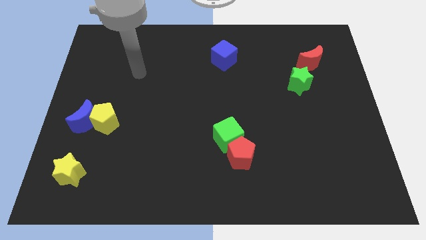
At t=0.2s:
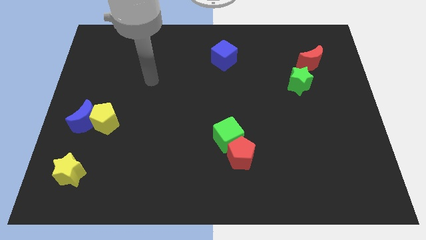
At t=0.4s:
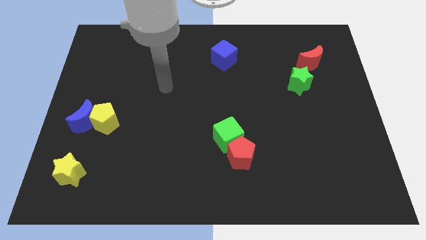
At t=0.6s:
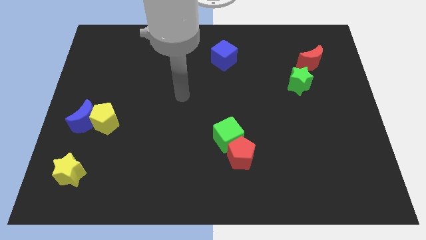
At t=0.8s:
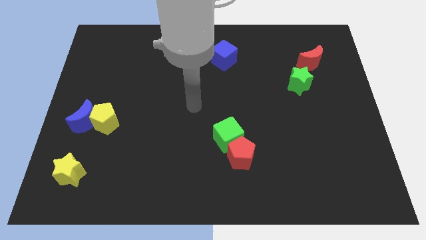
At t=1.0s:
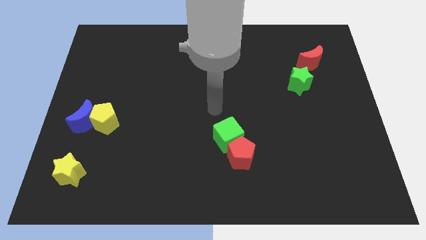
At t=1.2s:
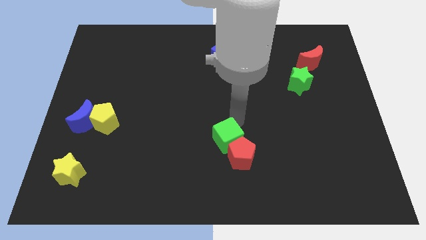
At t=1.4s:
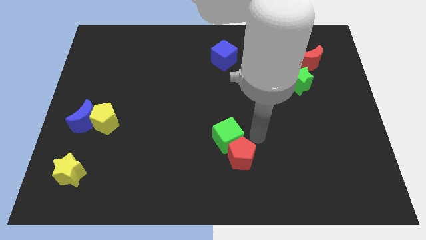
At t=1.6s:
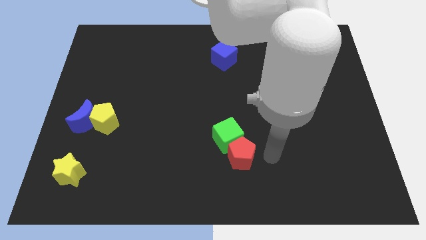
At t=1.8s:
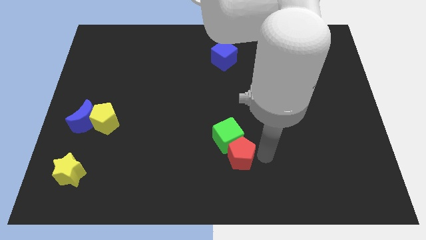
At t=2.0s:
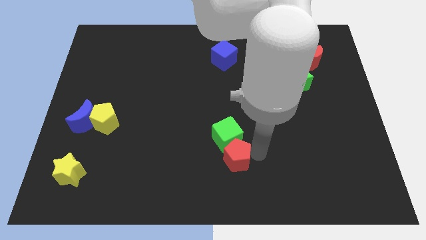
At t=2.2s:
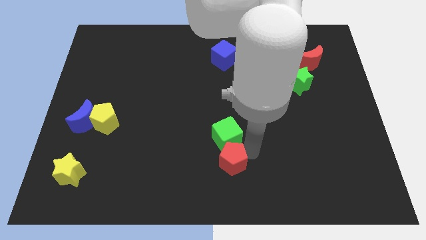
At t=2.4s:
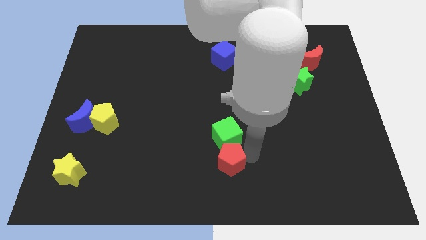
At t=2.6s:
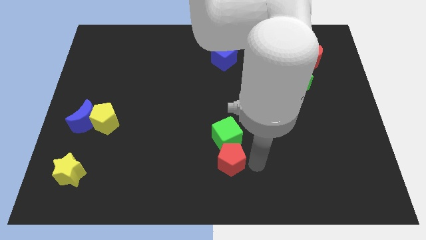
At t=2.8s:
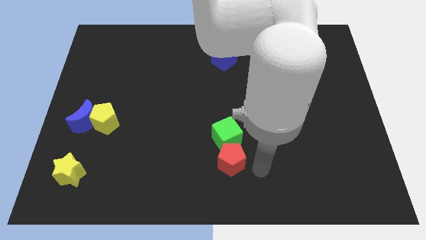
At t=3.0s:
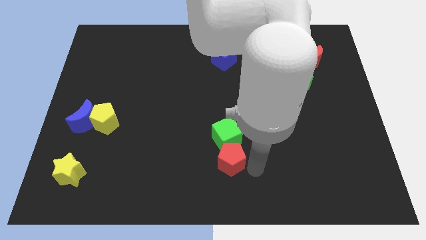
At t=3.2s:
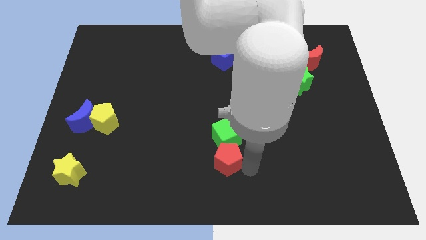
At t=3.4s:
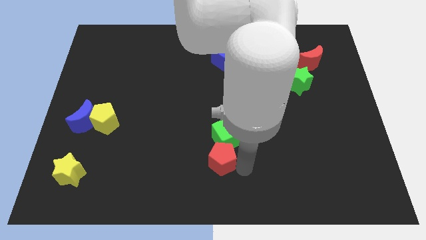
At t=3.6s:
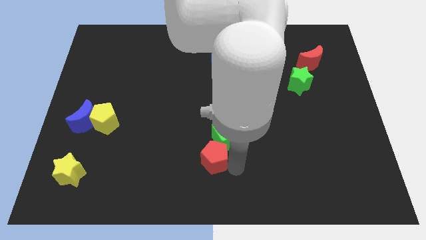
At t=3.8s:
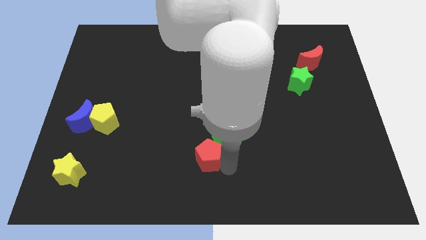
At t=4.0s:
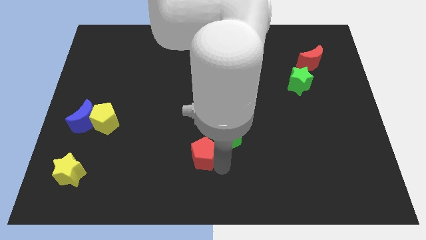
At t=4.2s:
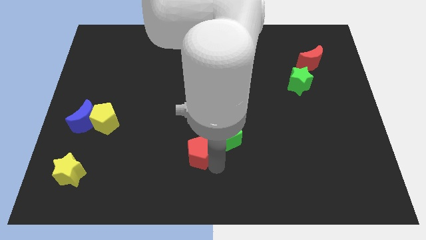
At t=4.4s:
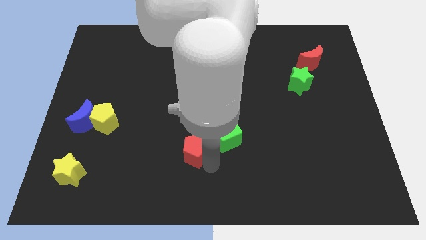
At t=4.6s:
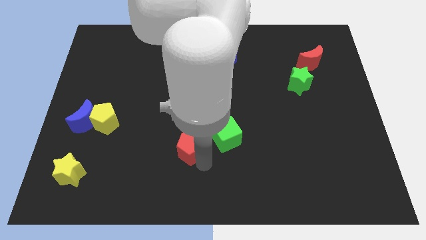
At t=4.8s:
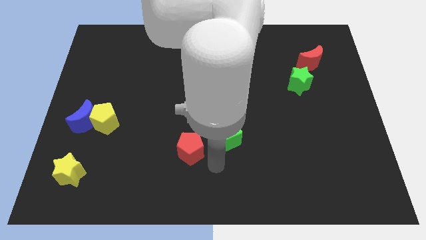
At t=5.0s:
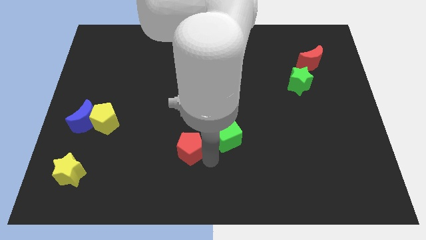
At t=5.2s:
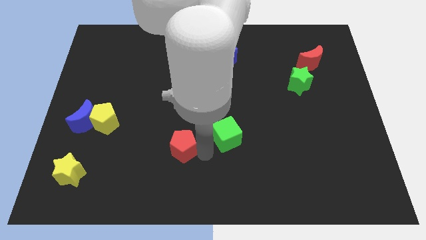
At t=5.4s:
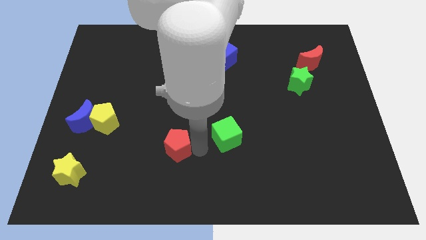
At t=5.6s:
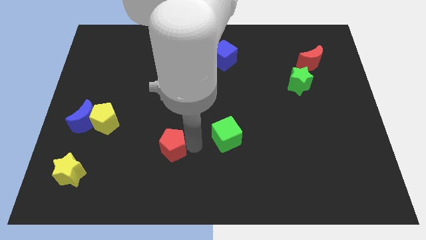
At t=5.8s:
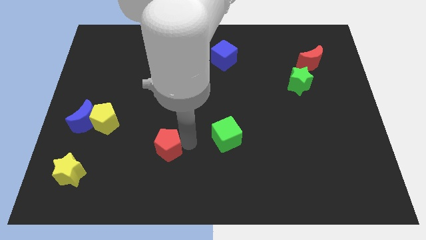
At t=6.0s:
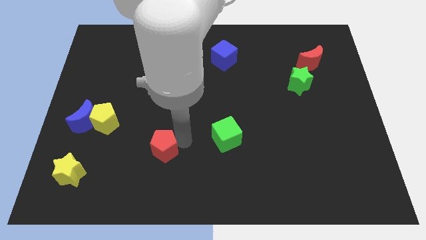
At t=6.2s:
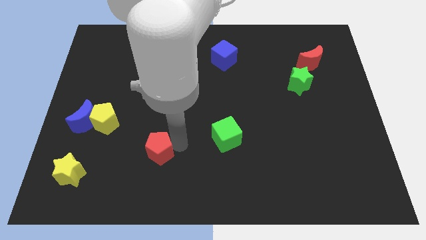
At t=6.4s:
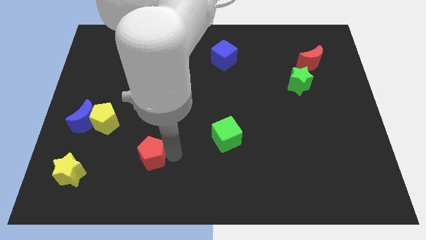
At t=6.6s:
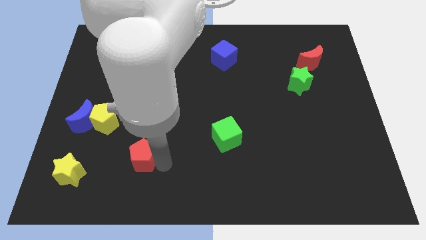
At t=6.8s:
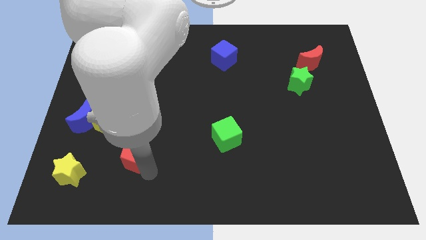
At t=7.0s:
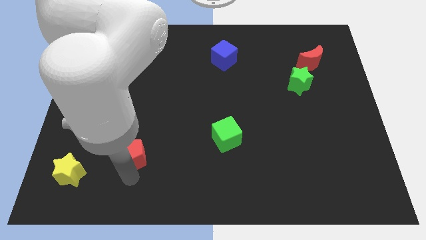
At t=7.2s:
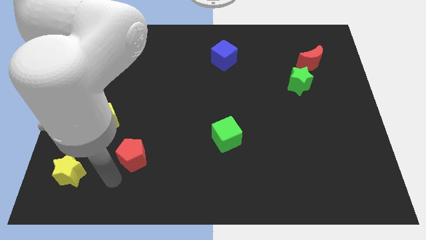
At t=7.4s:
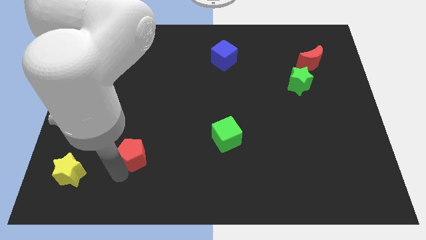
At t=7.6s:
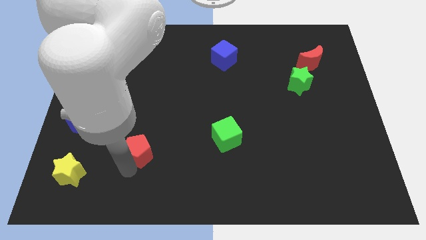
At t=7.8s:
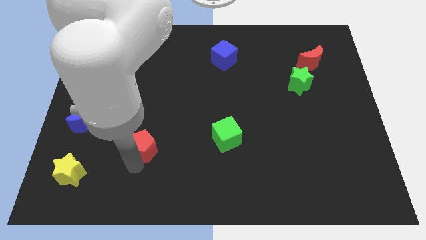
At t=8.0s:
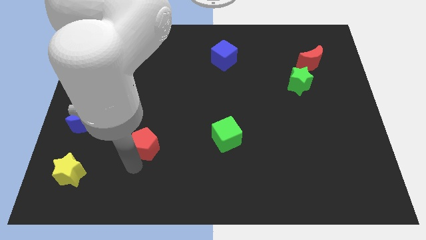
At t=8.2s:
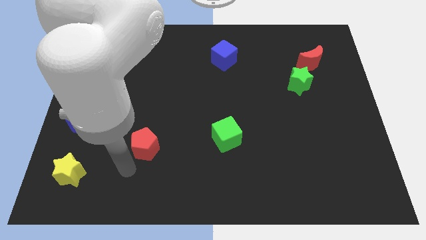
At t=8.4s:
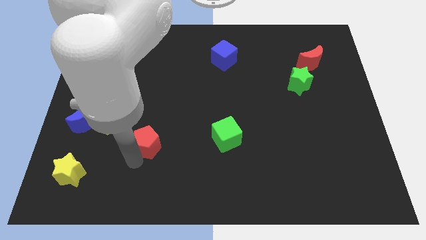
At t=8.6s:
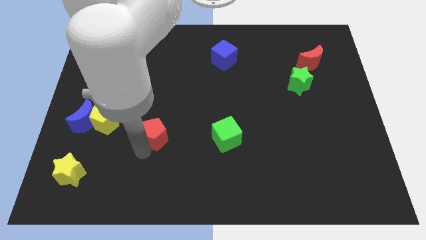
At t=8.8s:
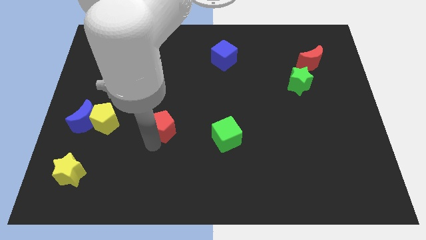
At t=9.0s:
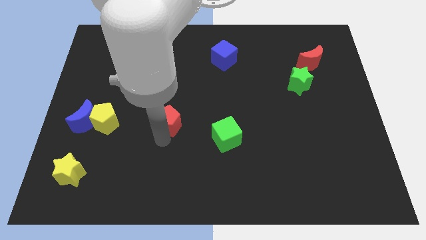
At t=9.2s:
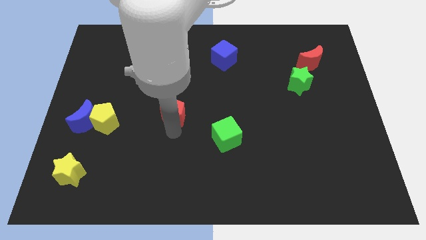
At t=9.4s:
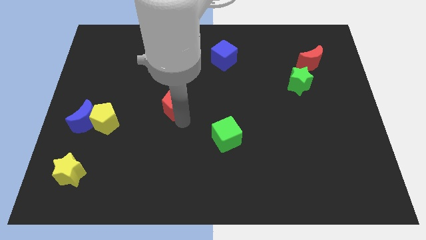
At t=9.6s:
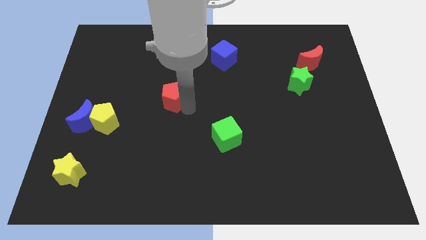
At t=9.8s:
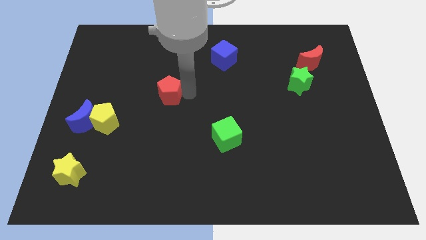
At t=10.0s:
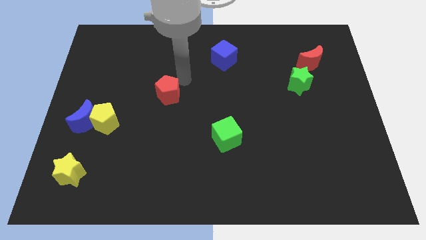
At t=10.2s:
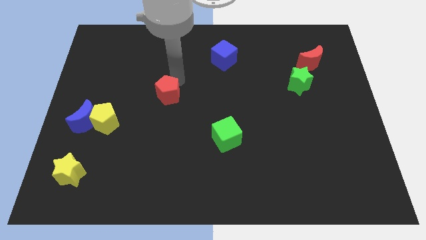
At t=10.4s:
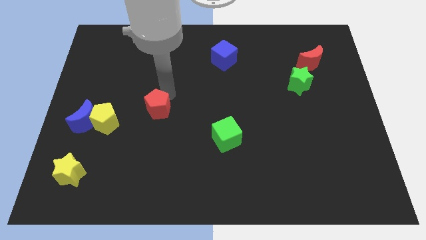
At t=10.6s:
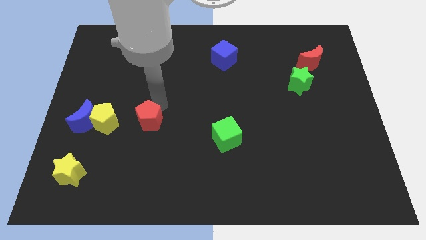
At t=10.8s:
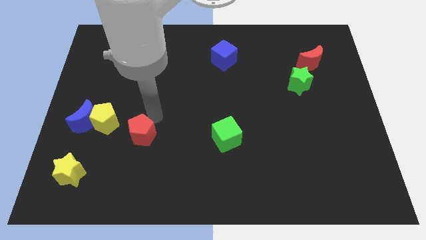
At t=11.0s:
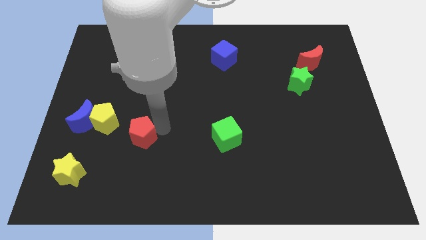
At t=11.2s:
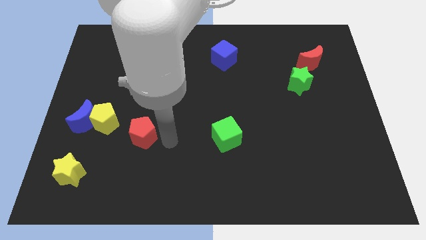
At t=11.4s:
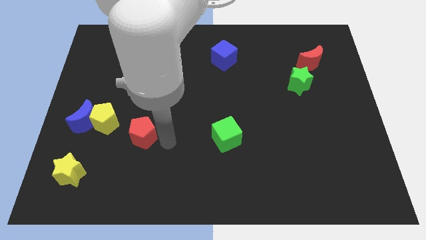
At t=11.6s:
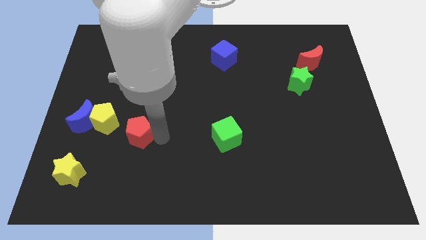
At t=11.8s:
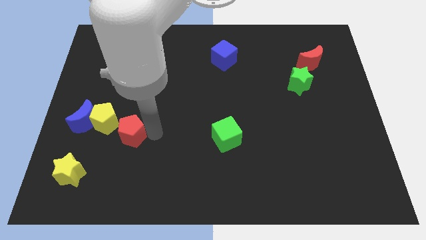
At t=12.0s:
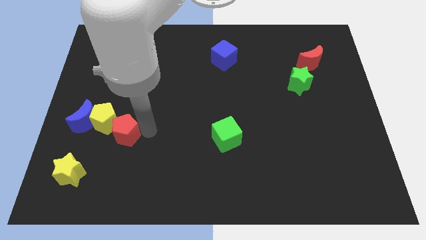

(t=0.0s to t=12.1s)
push the red pentagon towards the yellow pentagon

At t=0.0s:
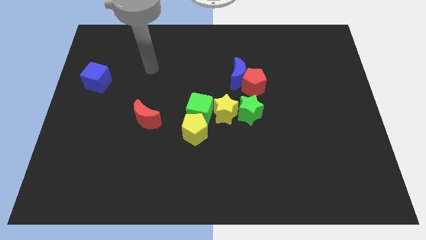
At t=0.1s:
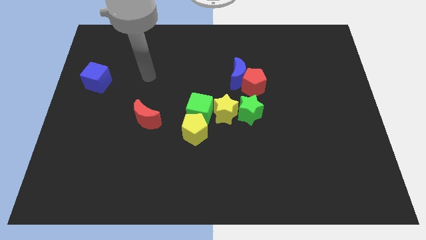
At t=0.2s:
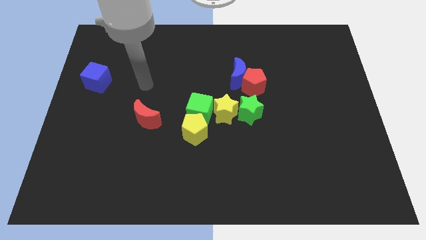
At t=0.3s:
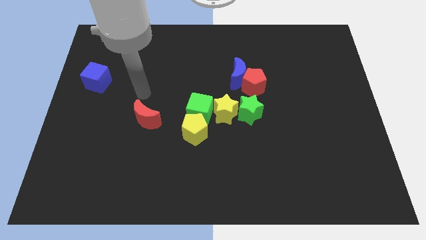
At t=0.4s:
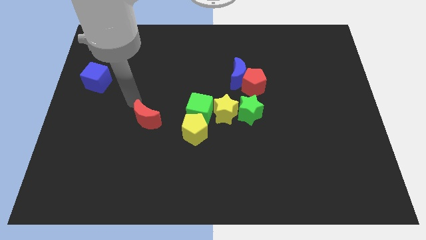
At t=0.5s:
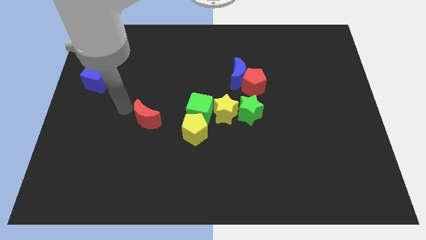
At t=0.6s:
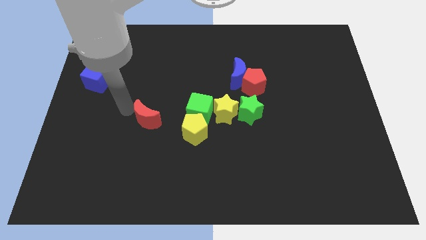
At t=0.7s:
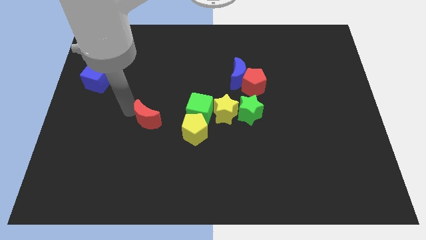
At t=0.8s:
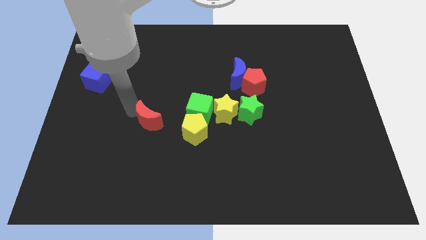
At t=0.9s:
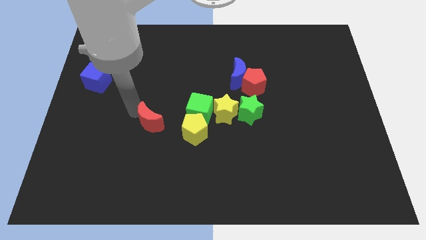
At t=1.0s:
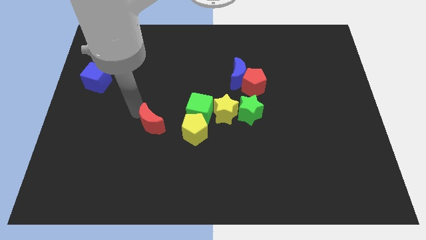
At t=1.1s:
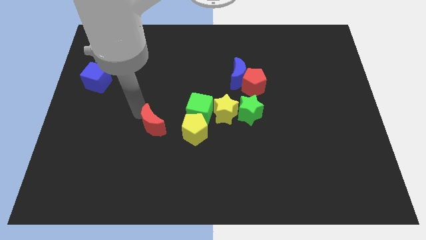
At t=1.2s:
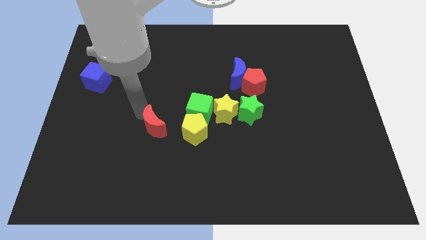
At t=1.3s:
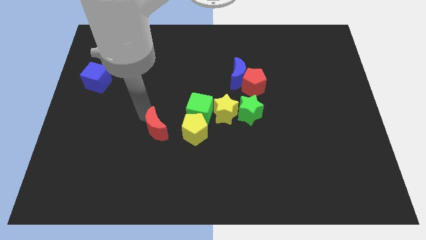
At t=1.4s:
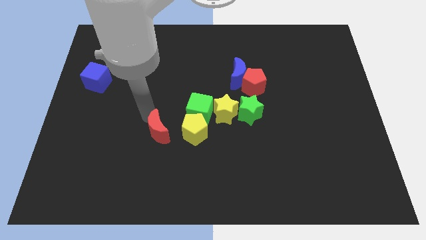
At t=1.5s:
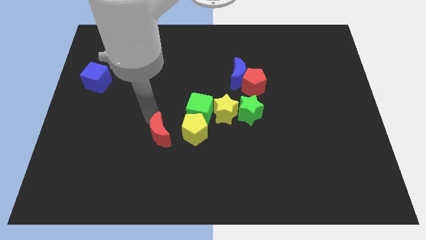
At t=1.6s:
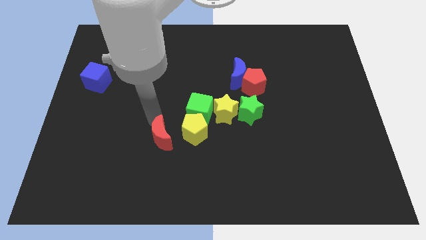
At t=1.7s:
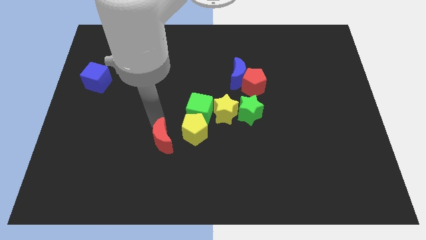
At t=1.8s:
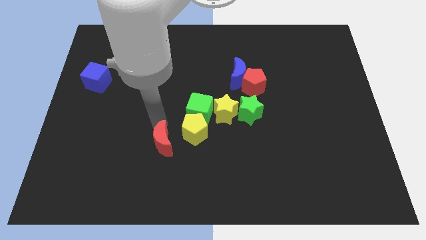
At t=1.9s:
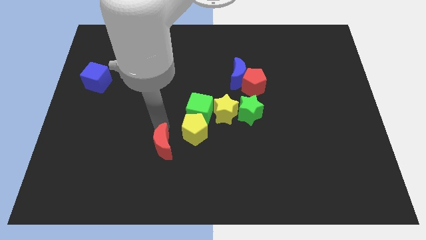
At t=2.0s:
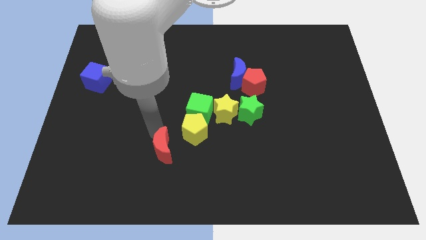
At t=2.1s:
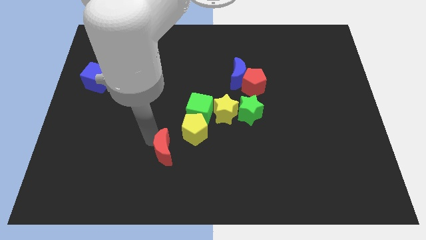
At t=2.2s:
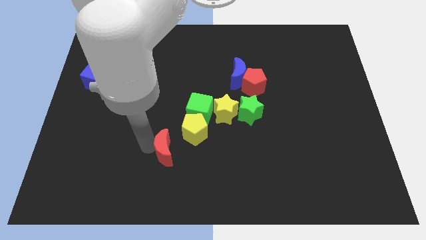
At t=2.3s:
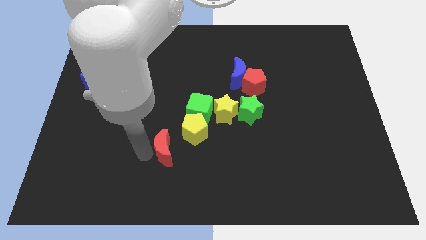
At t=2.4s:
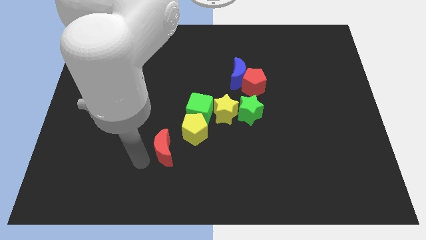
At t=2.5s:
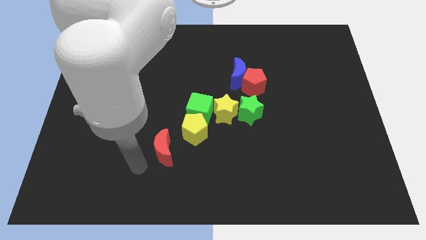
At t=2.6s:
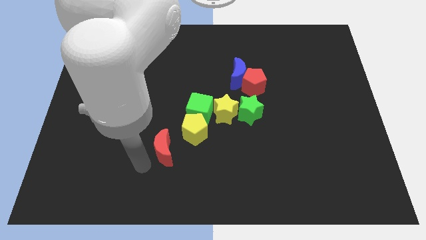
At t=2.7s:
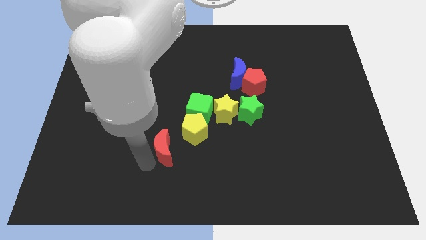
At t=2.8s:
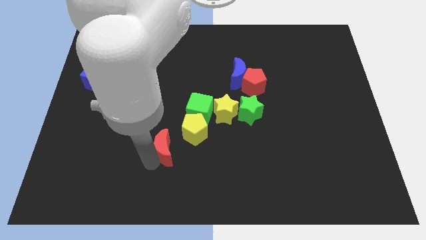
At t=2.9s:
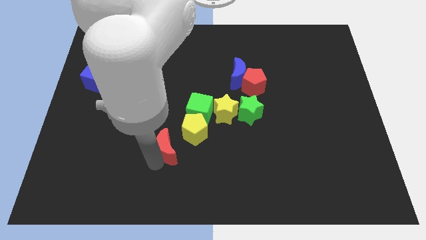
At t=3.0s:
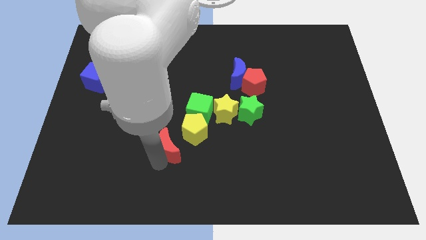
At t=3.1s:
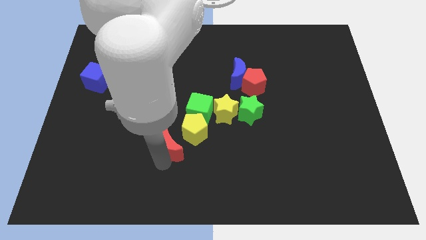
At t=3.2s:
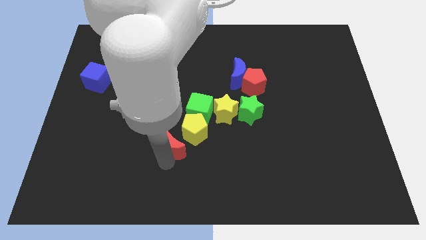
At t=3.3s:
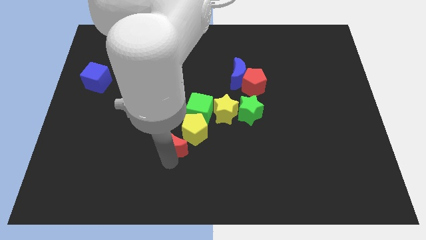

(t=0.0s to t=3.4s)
move the red moon close to the yellow pentagon
